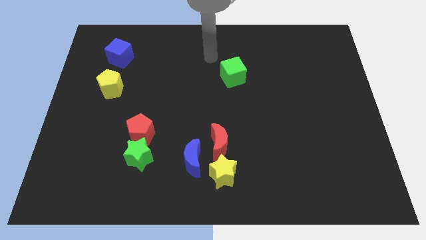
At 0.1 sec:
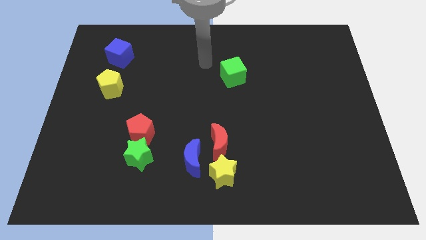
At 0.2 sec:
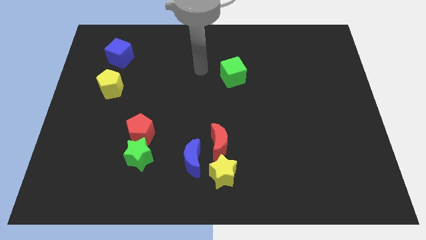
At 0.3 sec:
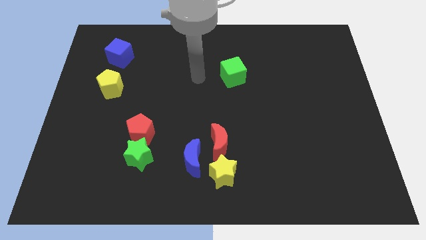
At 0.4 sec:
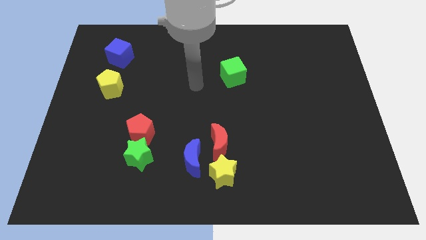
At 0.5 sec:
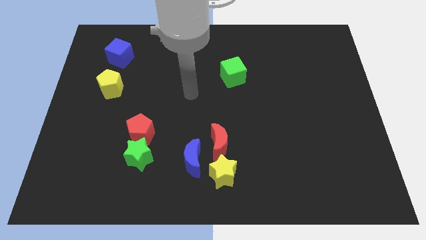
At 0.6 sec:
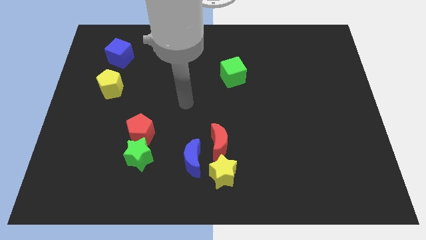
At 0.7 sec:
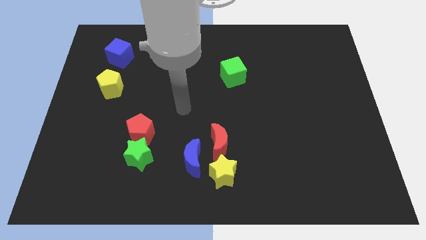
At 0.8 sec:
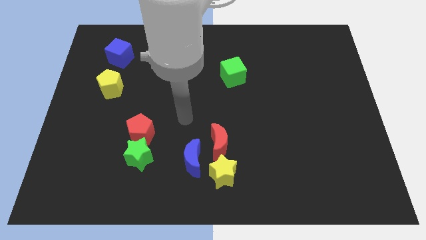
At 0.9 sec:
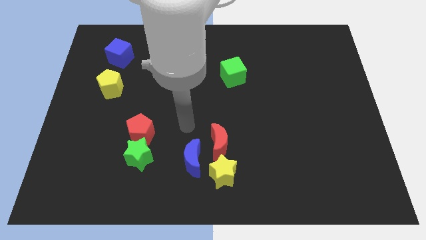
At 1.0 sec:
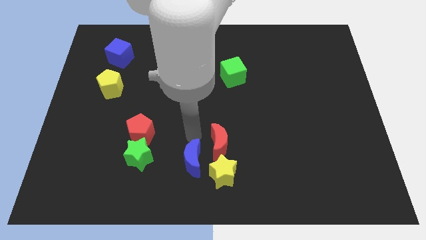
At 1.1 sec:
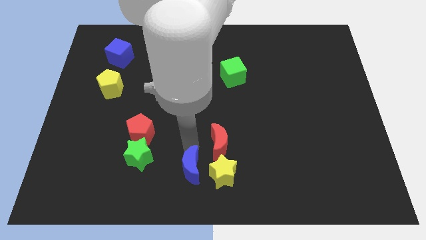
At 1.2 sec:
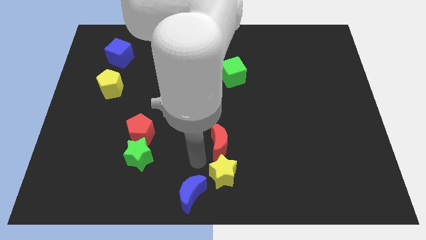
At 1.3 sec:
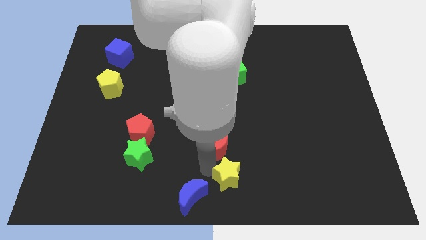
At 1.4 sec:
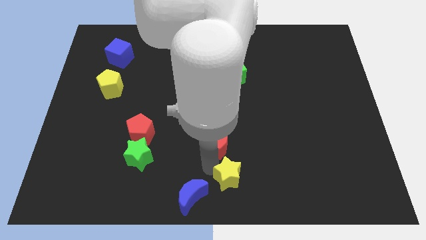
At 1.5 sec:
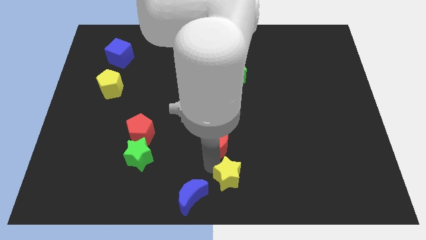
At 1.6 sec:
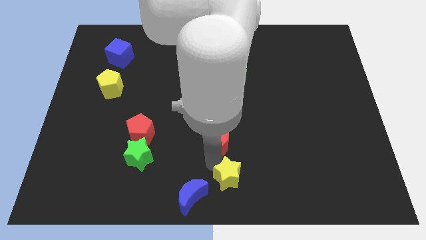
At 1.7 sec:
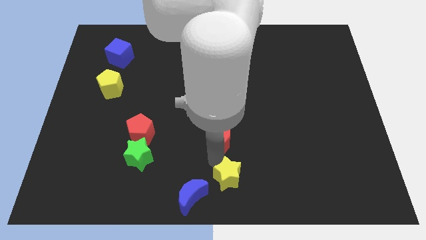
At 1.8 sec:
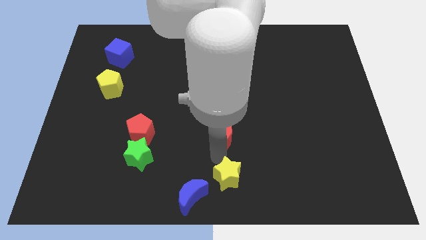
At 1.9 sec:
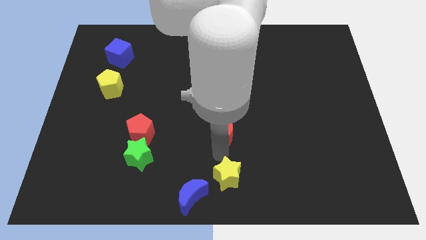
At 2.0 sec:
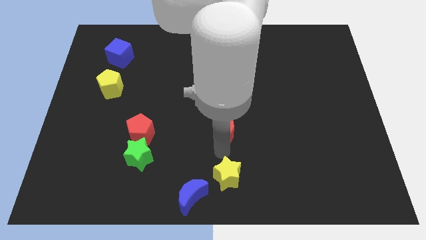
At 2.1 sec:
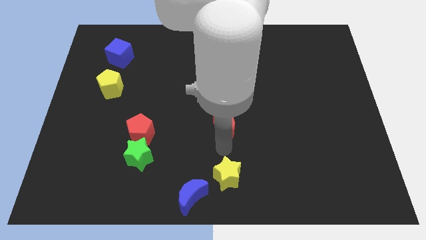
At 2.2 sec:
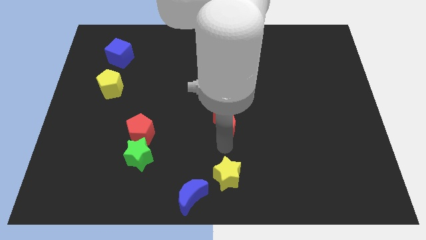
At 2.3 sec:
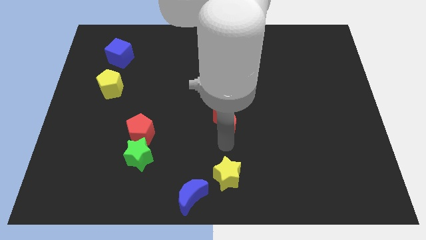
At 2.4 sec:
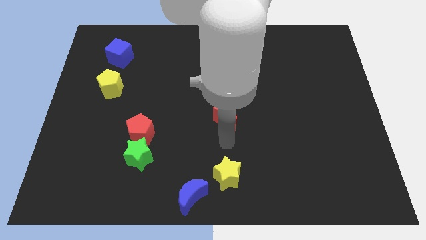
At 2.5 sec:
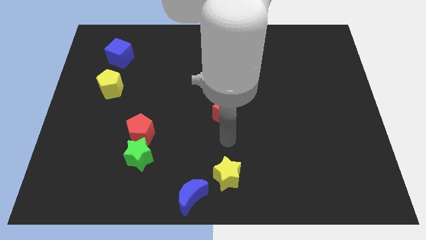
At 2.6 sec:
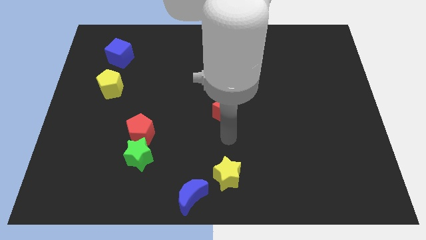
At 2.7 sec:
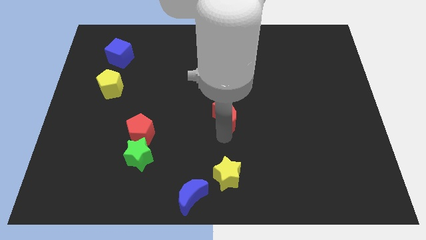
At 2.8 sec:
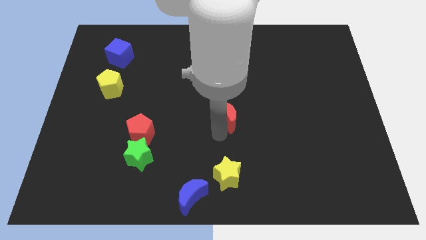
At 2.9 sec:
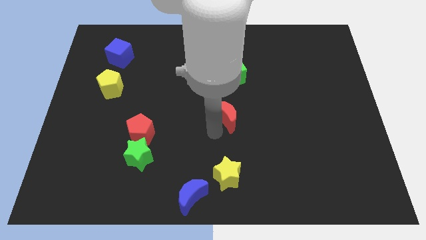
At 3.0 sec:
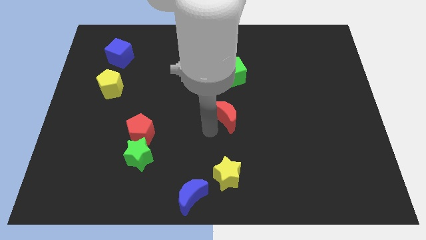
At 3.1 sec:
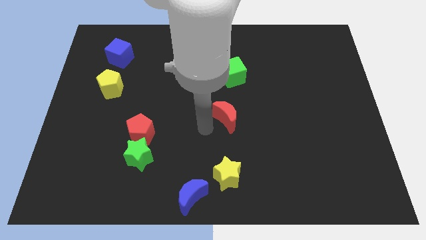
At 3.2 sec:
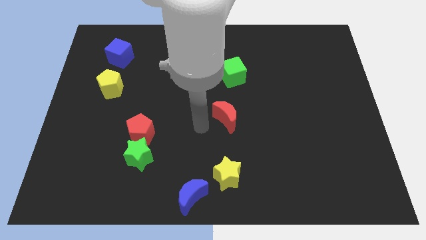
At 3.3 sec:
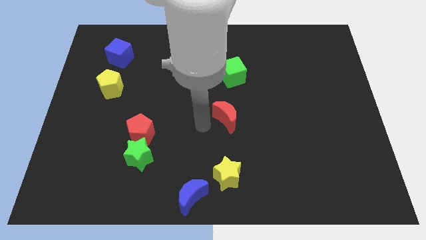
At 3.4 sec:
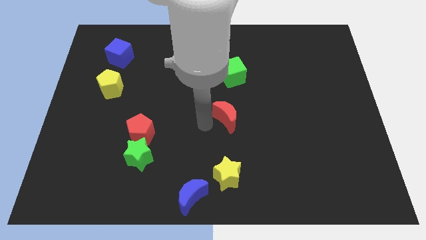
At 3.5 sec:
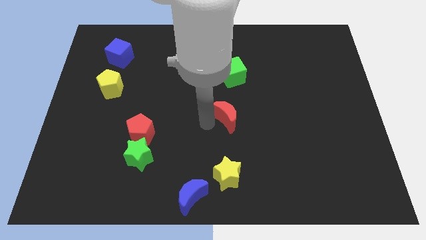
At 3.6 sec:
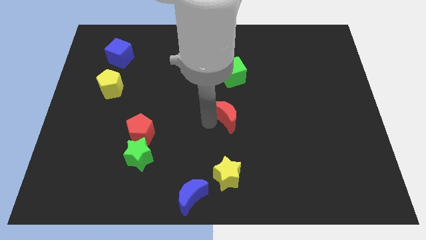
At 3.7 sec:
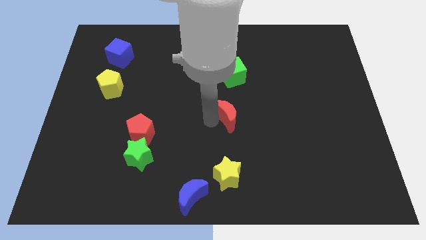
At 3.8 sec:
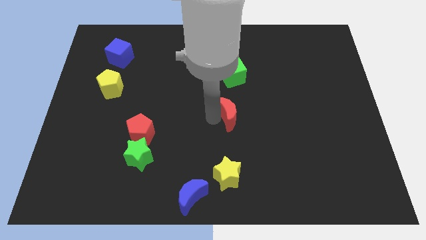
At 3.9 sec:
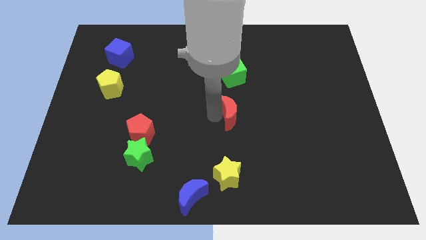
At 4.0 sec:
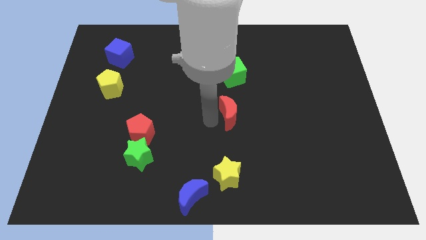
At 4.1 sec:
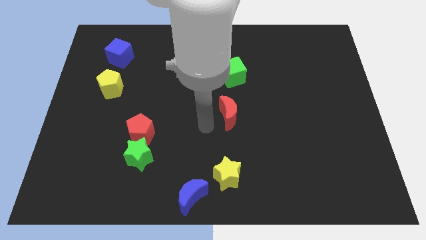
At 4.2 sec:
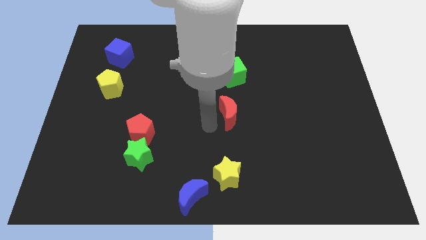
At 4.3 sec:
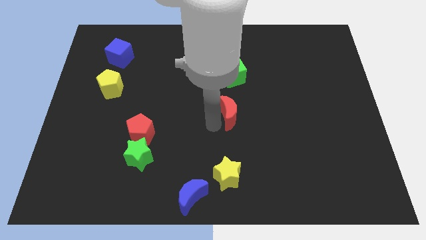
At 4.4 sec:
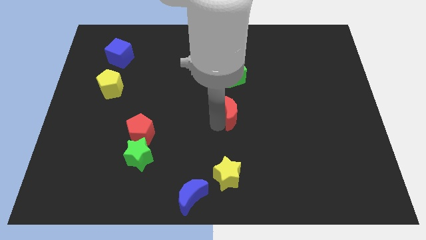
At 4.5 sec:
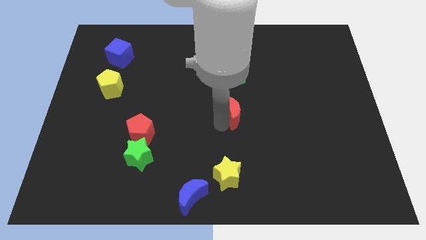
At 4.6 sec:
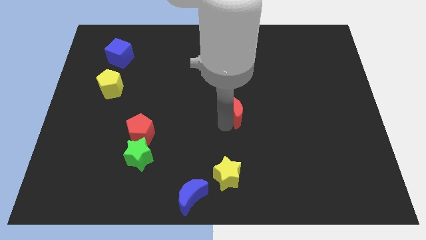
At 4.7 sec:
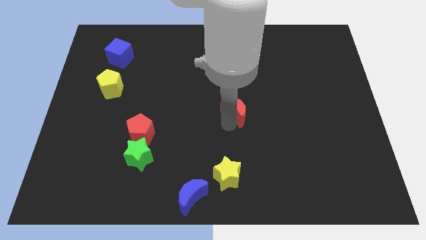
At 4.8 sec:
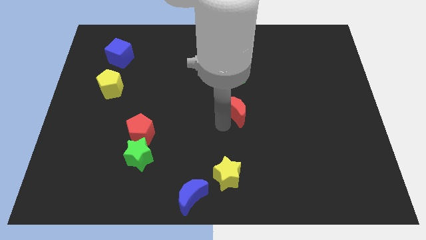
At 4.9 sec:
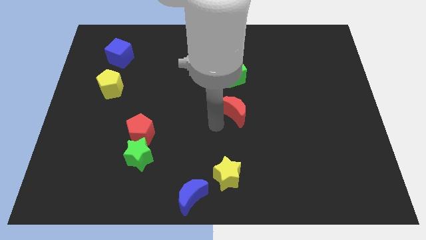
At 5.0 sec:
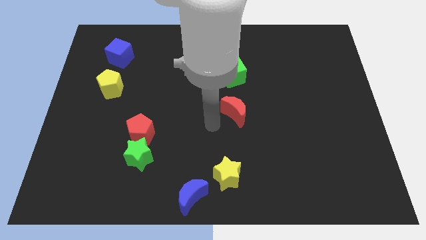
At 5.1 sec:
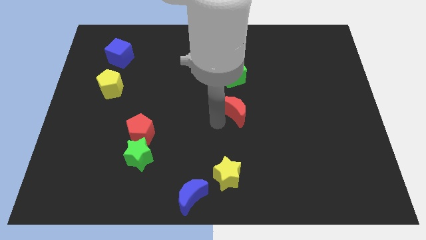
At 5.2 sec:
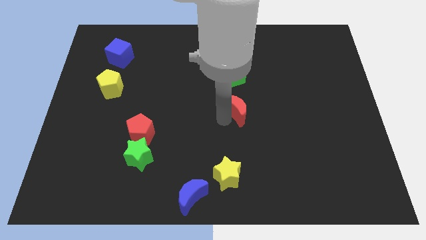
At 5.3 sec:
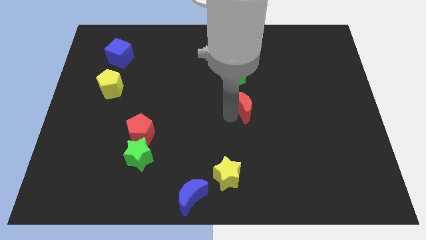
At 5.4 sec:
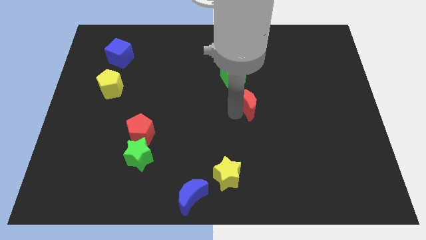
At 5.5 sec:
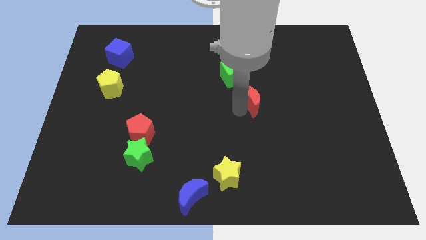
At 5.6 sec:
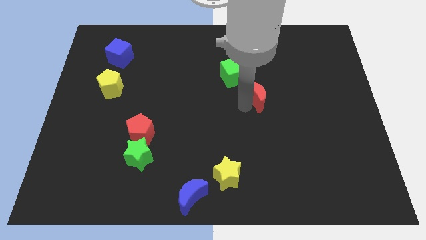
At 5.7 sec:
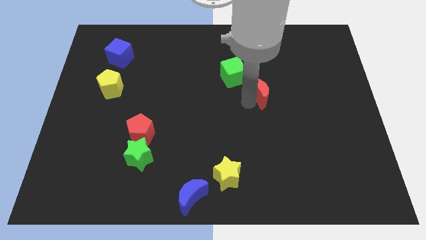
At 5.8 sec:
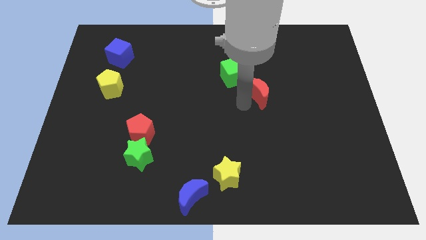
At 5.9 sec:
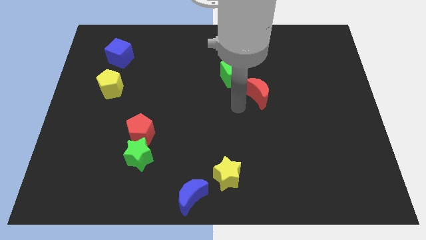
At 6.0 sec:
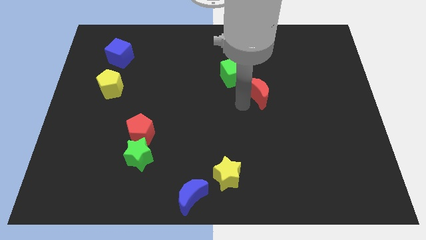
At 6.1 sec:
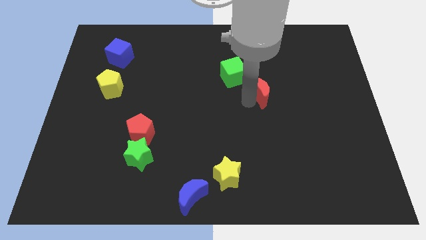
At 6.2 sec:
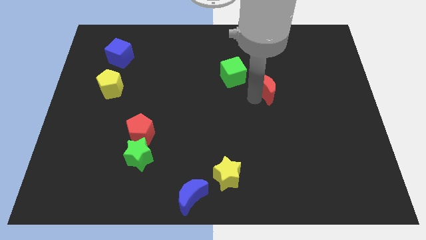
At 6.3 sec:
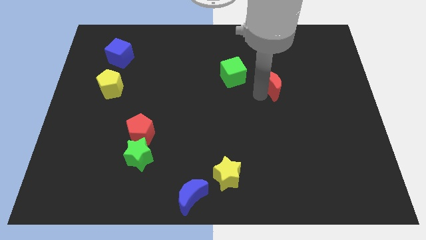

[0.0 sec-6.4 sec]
push the red moon up and right

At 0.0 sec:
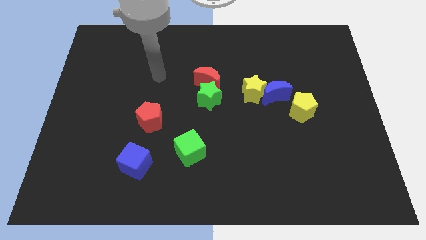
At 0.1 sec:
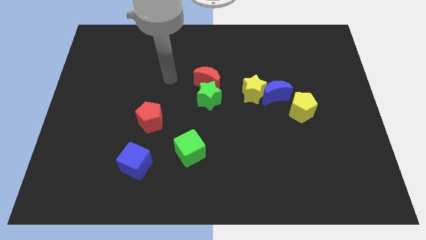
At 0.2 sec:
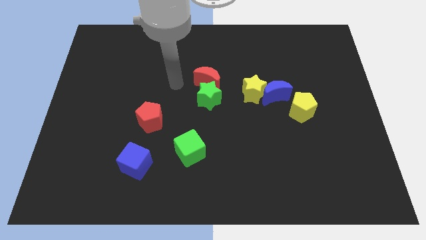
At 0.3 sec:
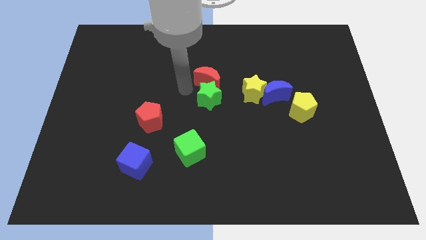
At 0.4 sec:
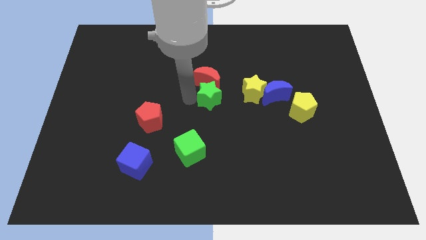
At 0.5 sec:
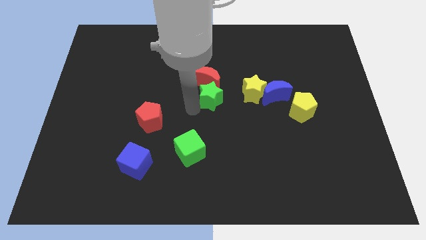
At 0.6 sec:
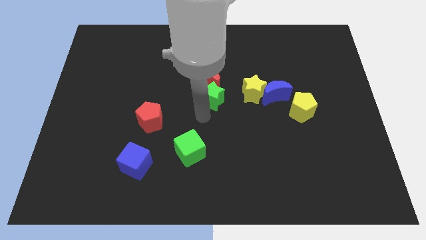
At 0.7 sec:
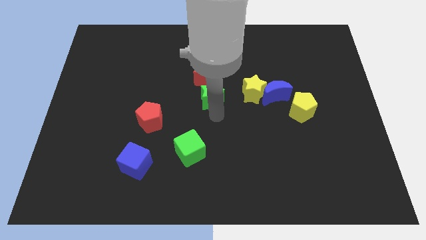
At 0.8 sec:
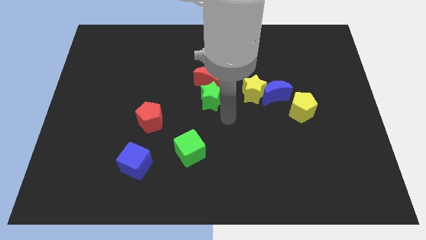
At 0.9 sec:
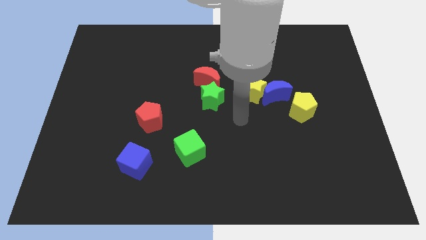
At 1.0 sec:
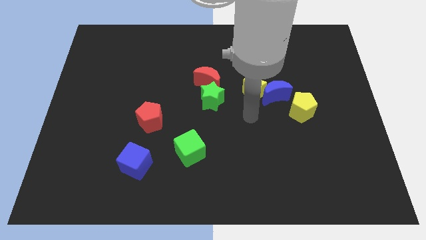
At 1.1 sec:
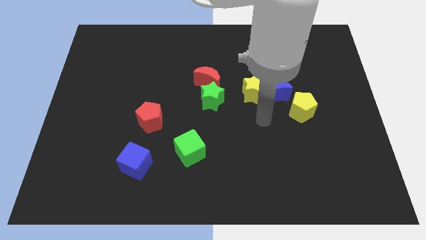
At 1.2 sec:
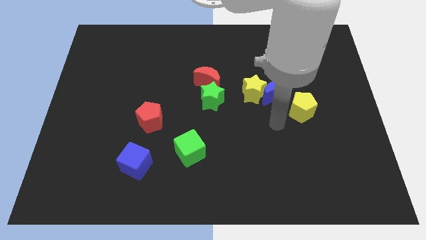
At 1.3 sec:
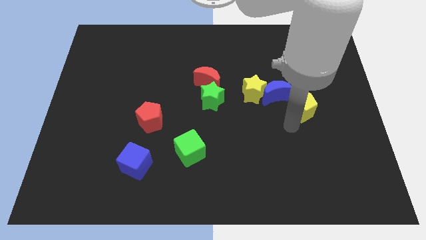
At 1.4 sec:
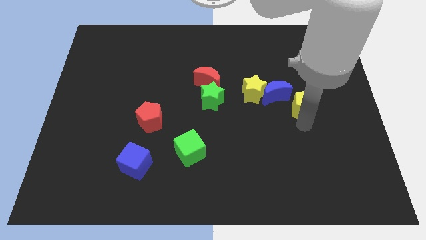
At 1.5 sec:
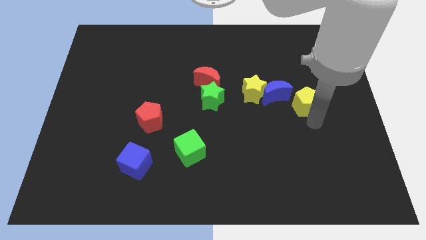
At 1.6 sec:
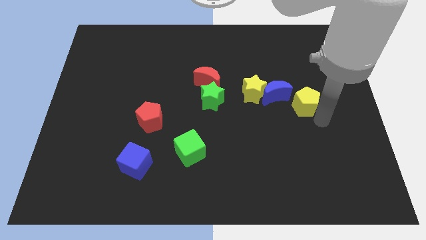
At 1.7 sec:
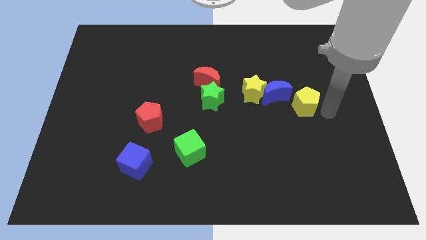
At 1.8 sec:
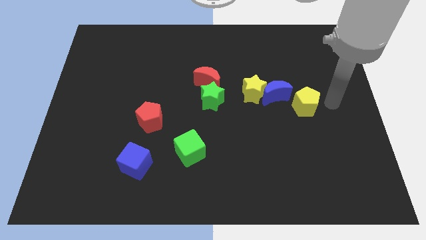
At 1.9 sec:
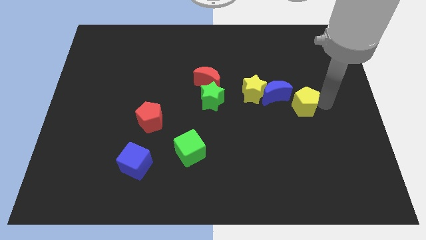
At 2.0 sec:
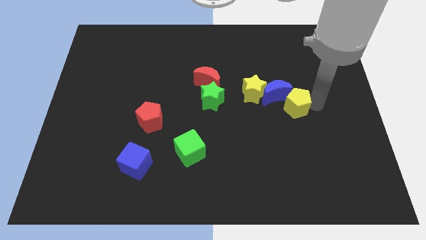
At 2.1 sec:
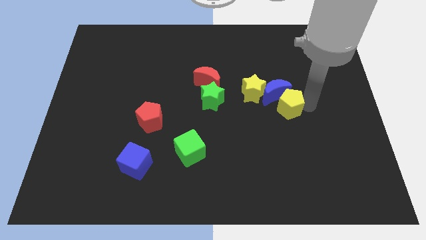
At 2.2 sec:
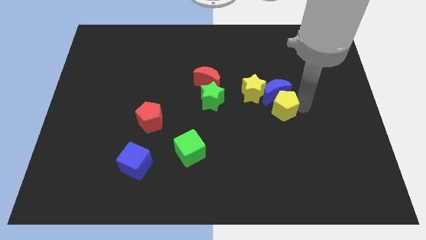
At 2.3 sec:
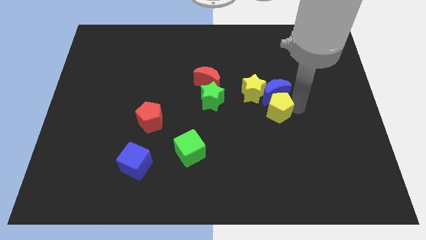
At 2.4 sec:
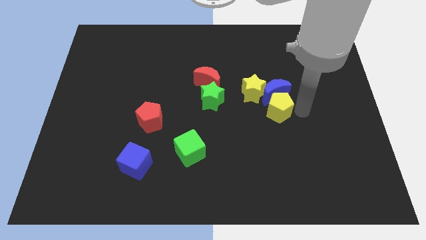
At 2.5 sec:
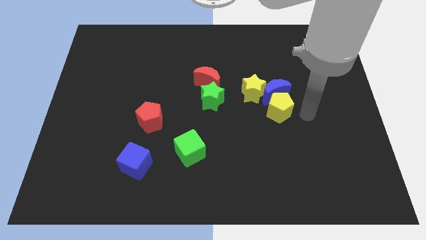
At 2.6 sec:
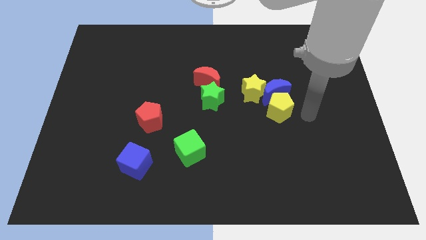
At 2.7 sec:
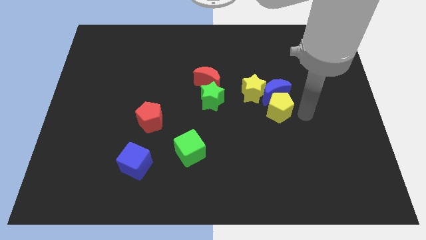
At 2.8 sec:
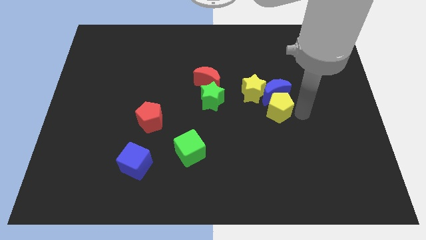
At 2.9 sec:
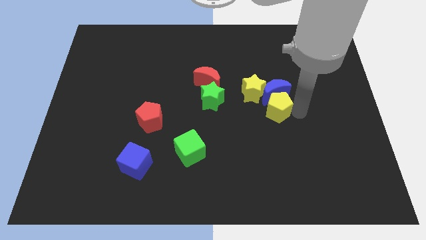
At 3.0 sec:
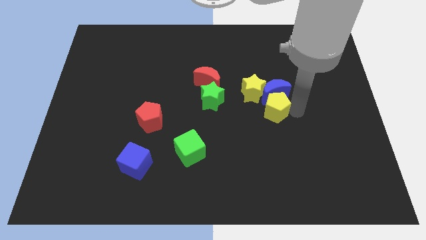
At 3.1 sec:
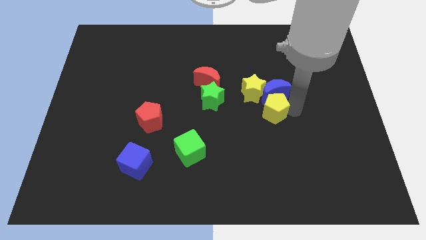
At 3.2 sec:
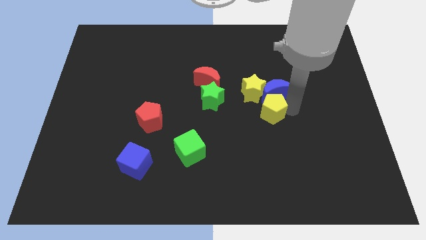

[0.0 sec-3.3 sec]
slightly move the yellow pentagon left
